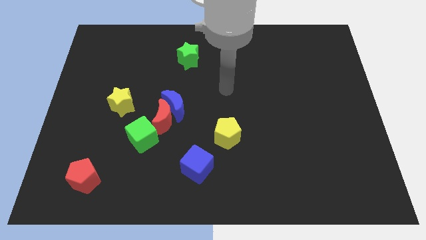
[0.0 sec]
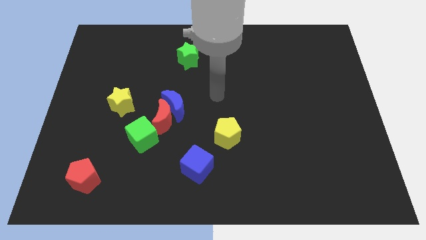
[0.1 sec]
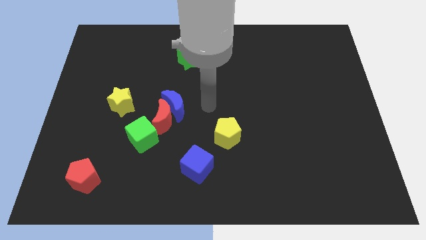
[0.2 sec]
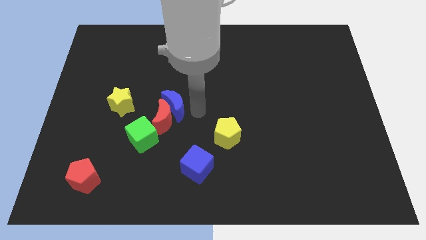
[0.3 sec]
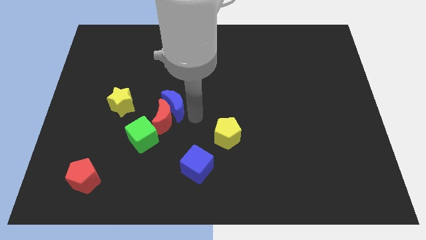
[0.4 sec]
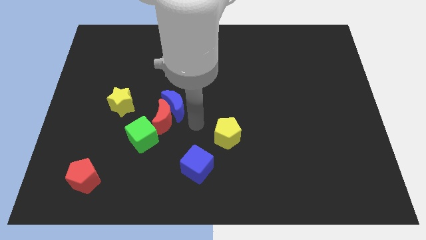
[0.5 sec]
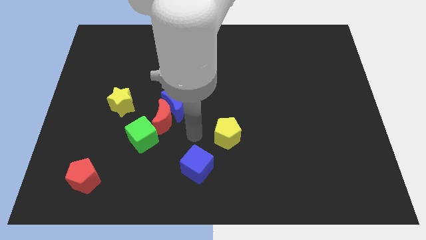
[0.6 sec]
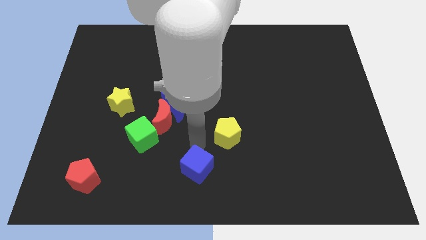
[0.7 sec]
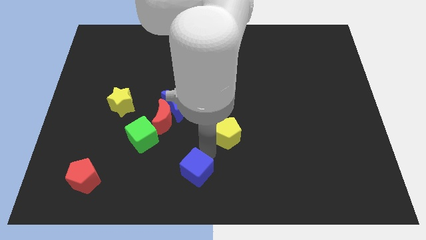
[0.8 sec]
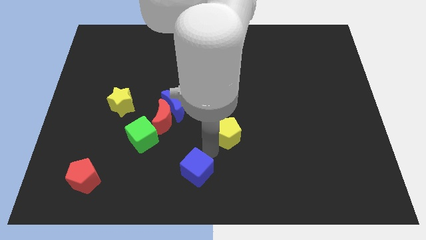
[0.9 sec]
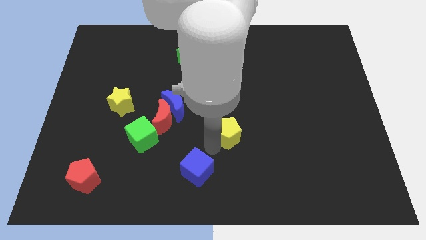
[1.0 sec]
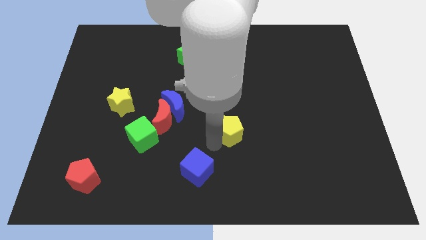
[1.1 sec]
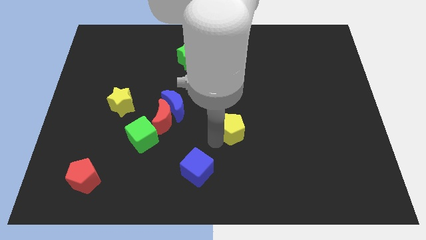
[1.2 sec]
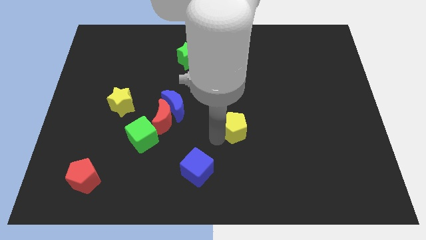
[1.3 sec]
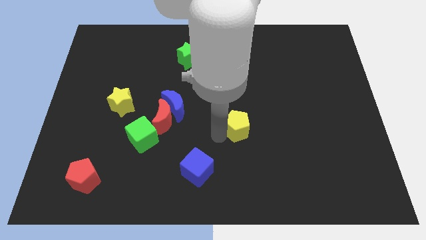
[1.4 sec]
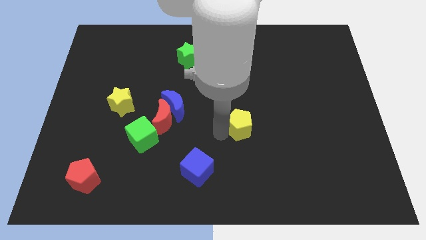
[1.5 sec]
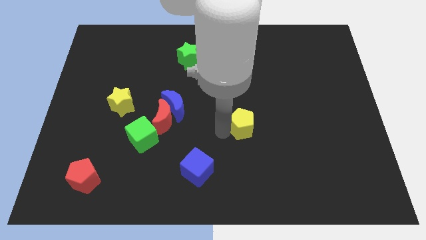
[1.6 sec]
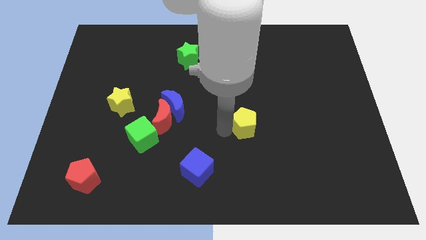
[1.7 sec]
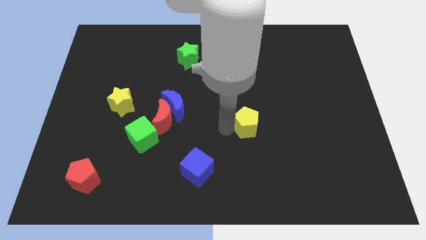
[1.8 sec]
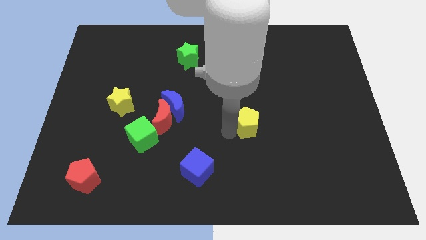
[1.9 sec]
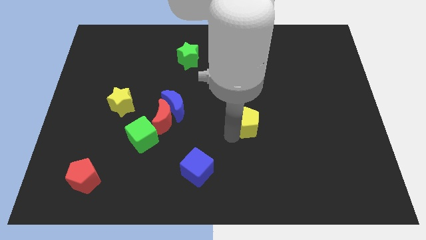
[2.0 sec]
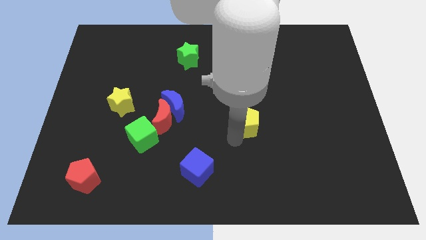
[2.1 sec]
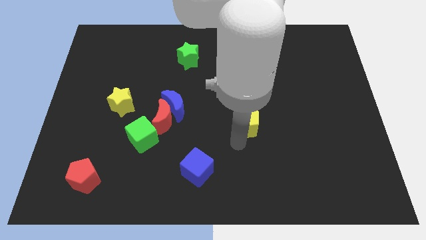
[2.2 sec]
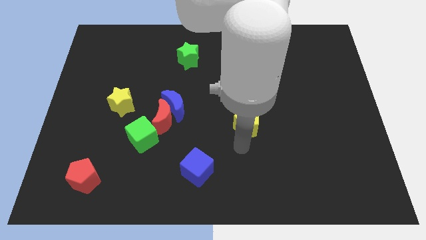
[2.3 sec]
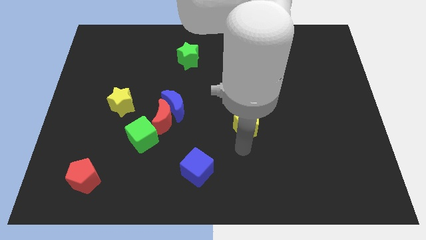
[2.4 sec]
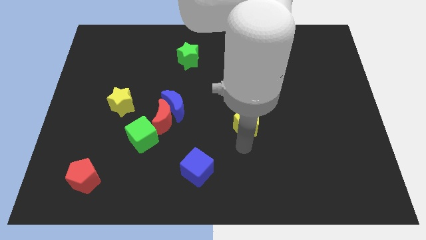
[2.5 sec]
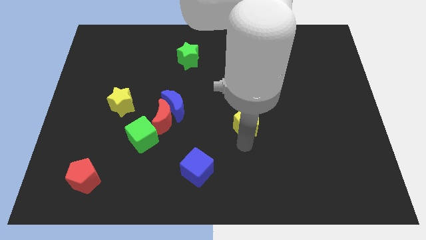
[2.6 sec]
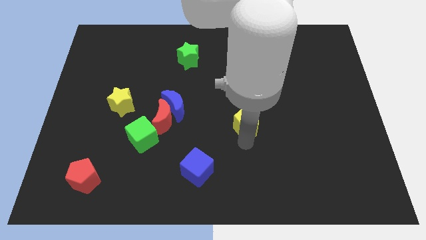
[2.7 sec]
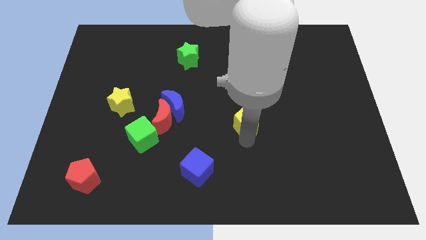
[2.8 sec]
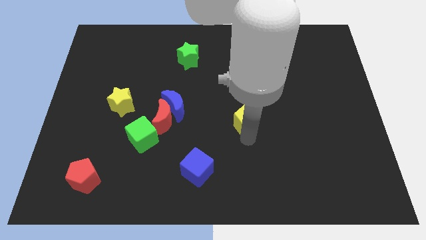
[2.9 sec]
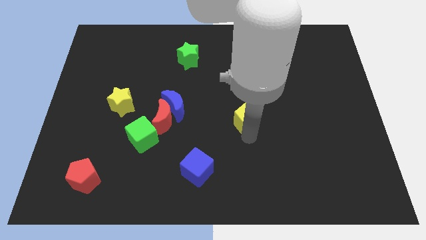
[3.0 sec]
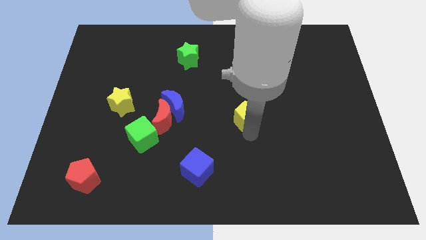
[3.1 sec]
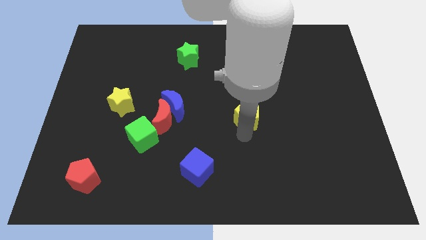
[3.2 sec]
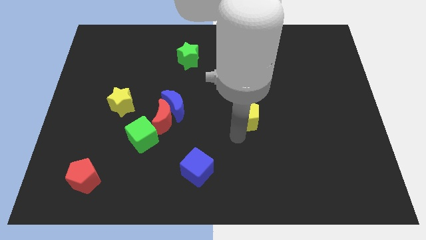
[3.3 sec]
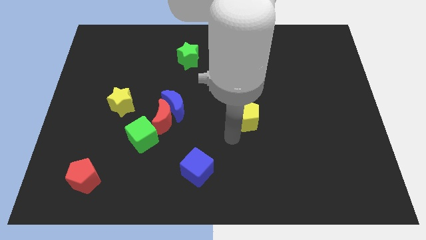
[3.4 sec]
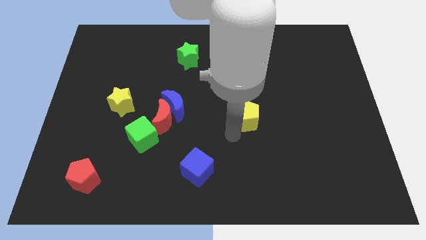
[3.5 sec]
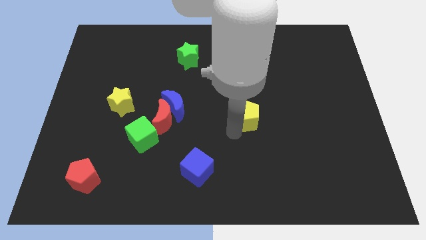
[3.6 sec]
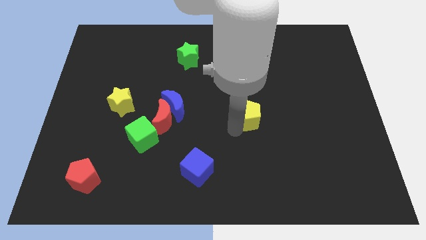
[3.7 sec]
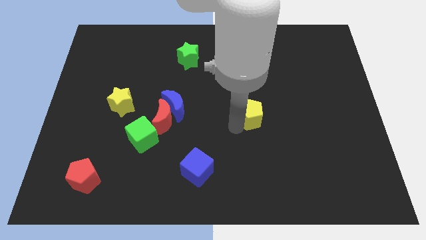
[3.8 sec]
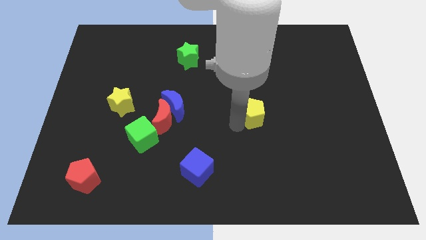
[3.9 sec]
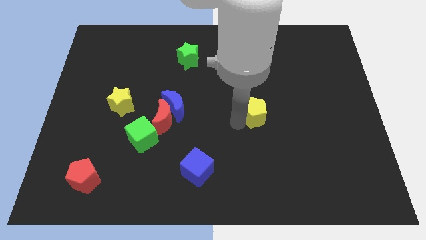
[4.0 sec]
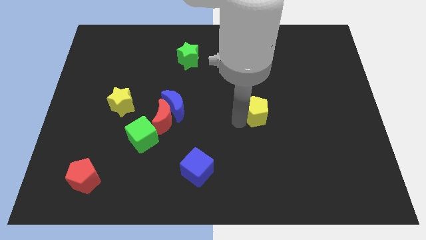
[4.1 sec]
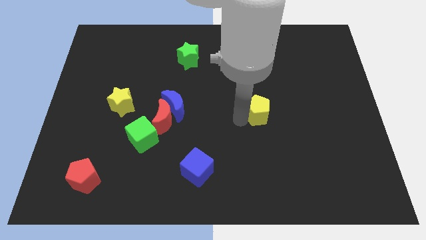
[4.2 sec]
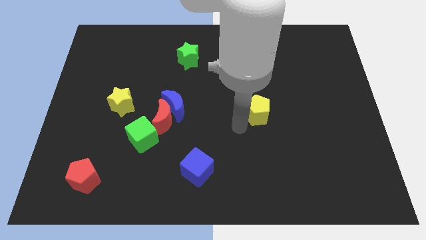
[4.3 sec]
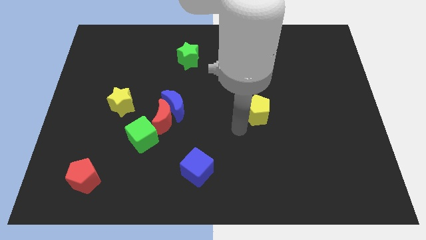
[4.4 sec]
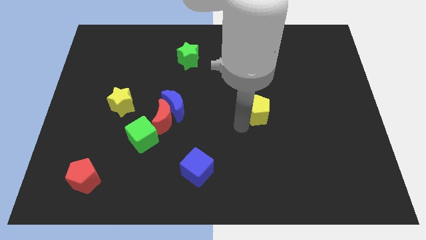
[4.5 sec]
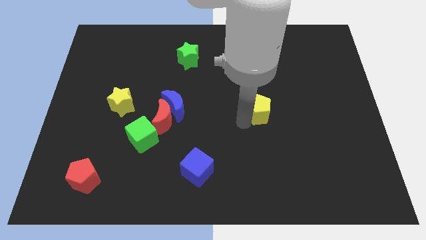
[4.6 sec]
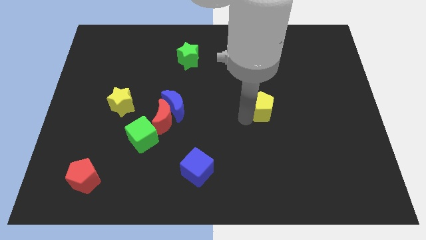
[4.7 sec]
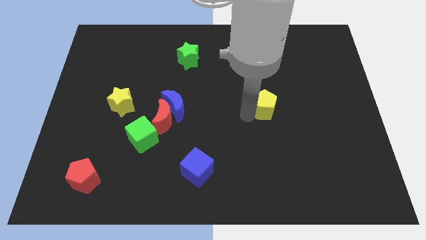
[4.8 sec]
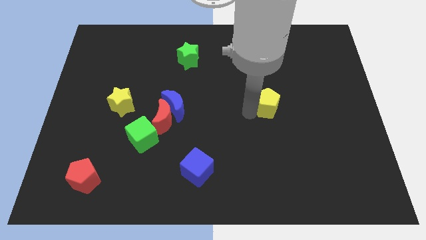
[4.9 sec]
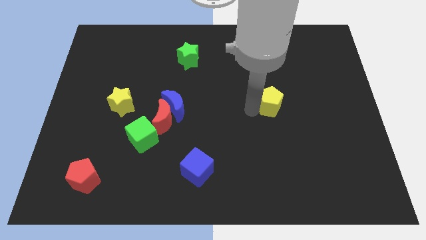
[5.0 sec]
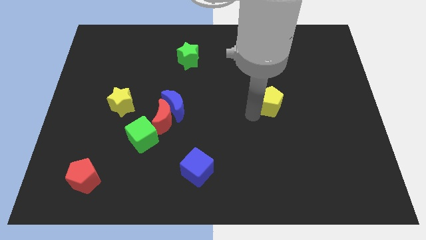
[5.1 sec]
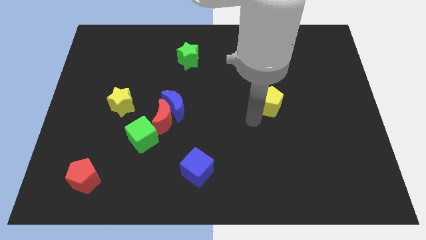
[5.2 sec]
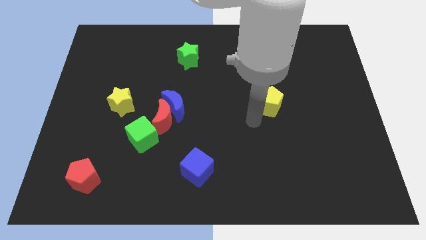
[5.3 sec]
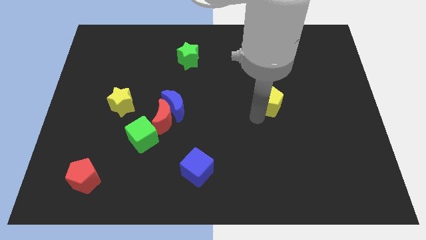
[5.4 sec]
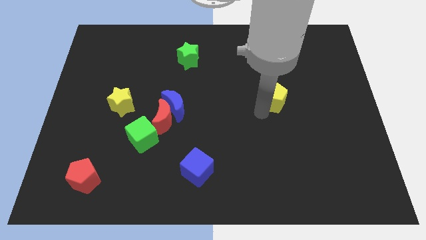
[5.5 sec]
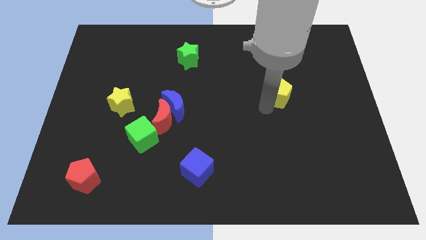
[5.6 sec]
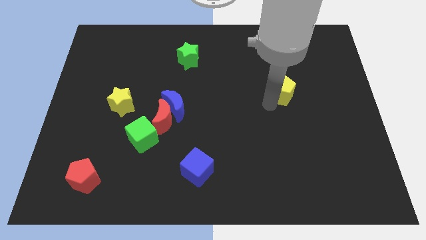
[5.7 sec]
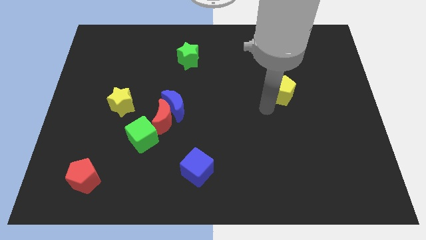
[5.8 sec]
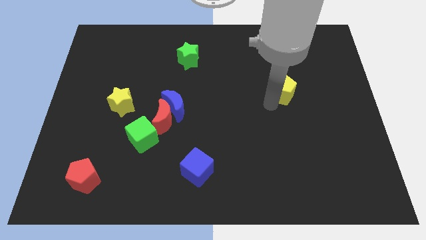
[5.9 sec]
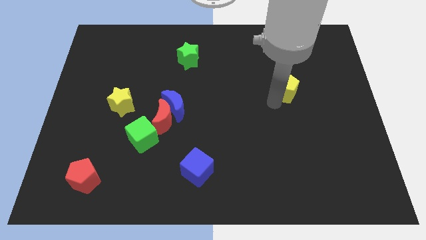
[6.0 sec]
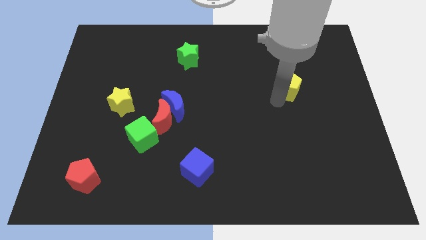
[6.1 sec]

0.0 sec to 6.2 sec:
move the yellow pentagon diagonally up and right

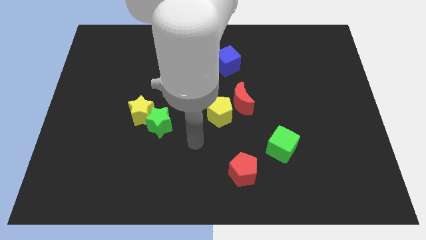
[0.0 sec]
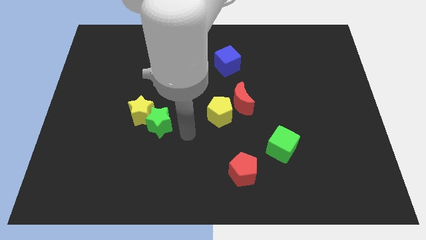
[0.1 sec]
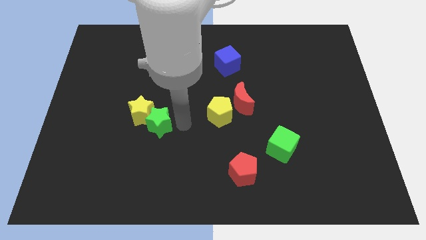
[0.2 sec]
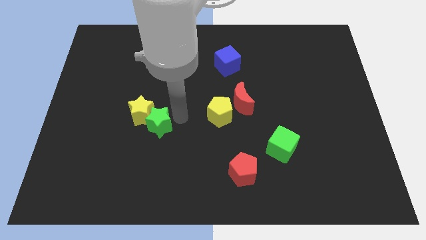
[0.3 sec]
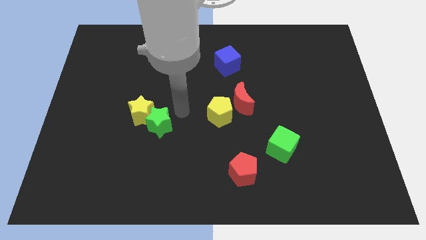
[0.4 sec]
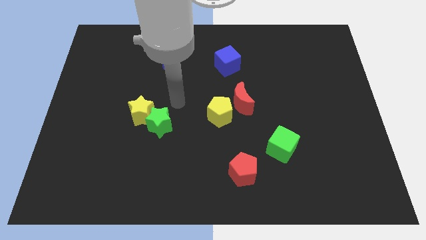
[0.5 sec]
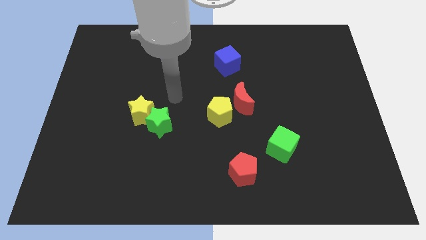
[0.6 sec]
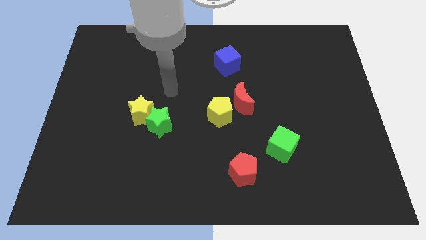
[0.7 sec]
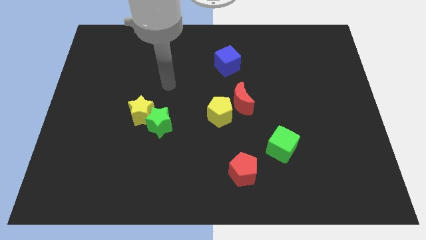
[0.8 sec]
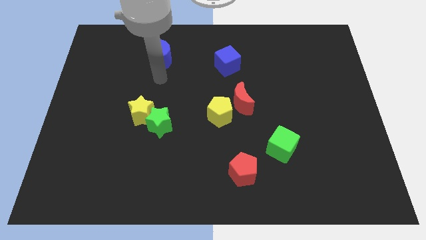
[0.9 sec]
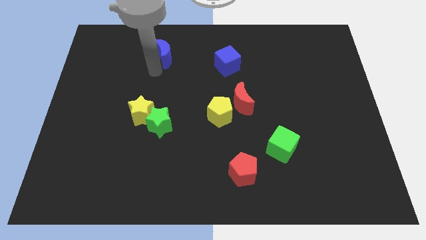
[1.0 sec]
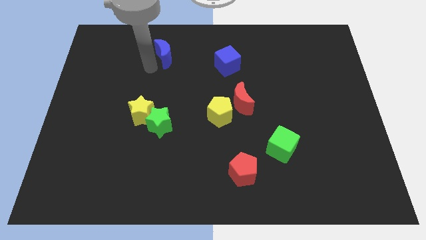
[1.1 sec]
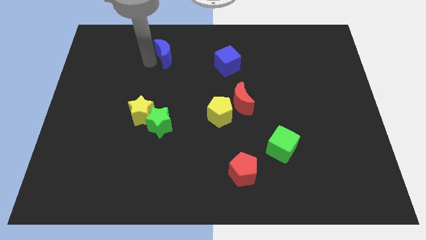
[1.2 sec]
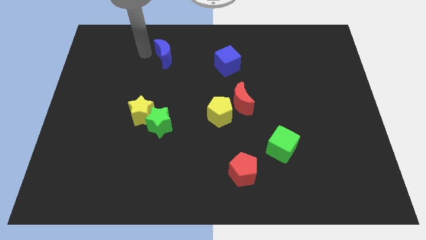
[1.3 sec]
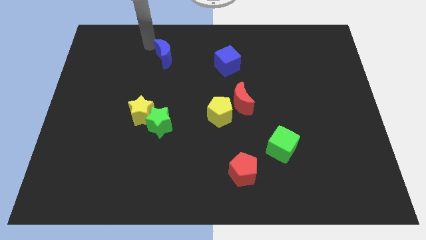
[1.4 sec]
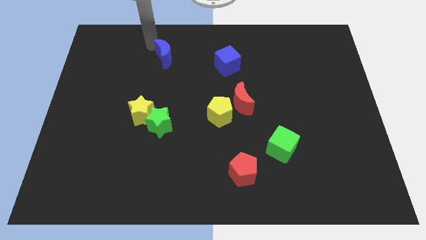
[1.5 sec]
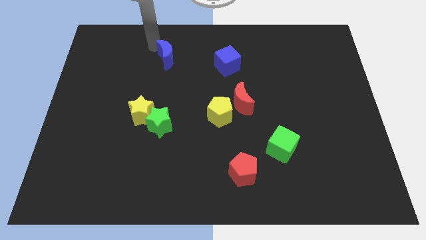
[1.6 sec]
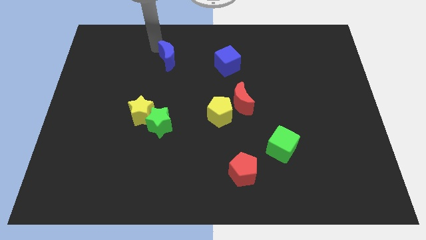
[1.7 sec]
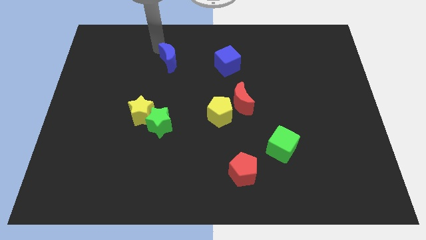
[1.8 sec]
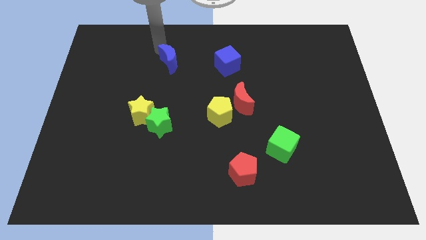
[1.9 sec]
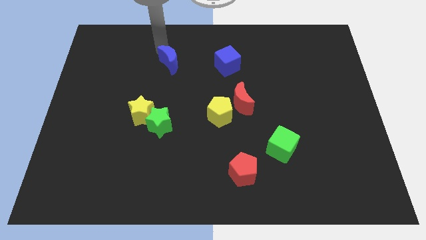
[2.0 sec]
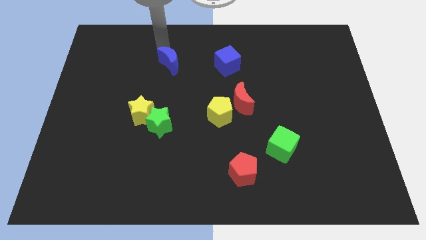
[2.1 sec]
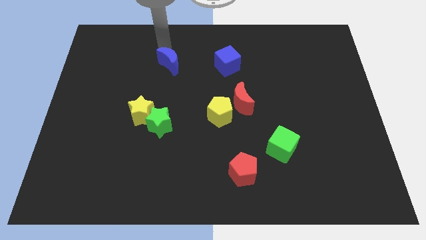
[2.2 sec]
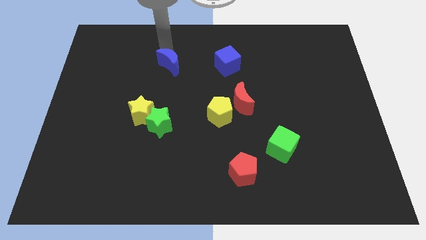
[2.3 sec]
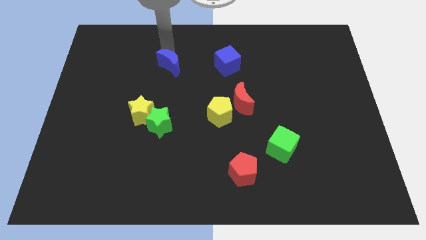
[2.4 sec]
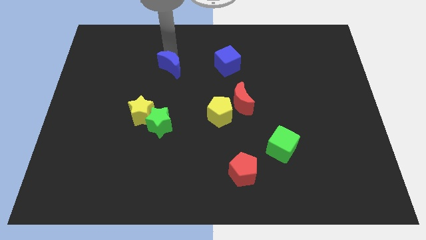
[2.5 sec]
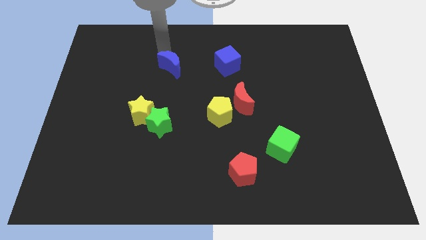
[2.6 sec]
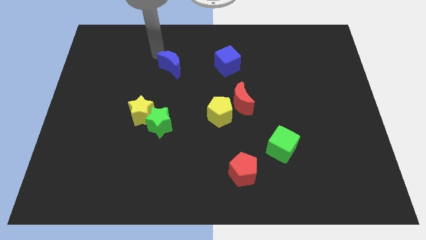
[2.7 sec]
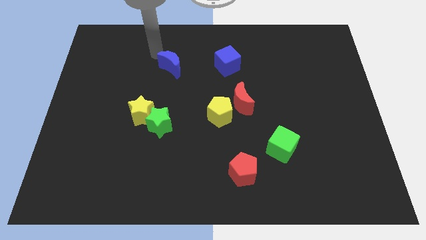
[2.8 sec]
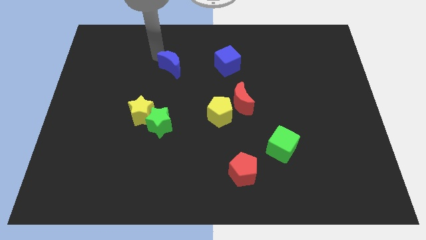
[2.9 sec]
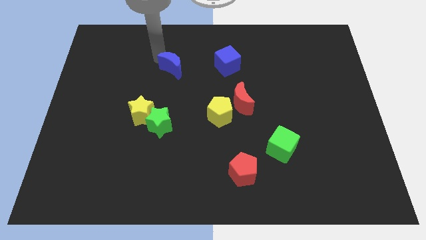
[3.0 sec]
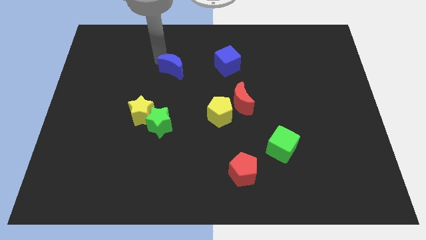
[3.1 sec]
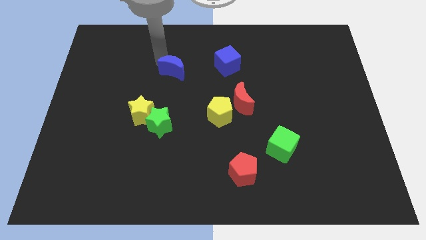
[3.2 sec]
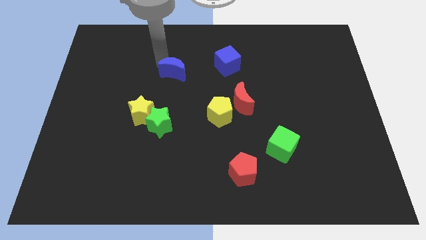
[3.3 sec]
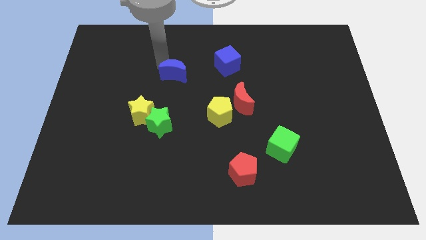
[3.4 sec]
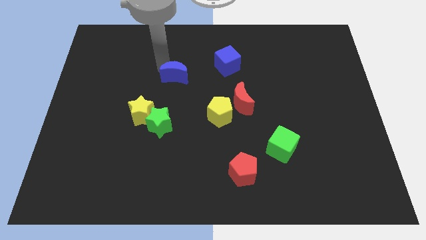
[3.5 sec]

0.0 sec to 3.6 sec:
push the blue moon a little bit down and to the right diagonally
